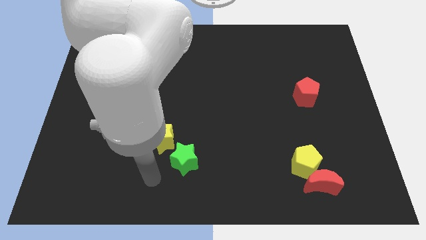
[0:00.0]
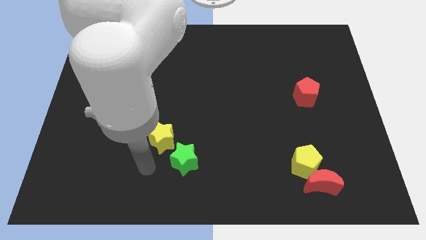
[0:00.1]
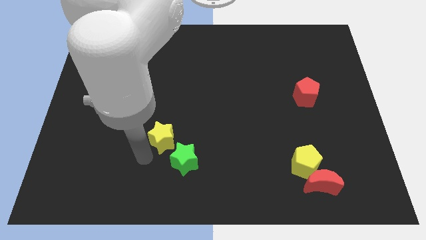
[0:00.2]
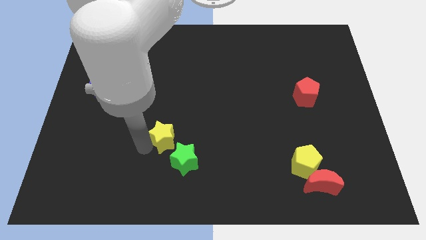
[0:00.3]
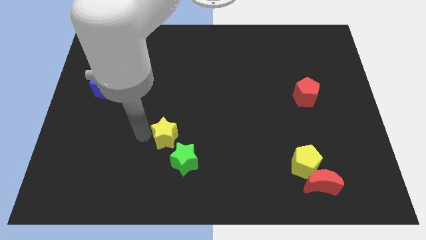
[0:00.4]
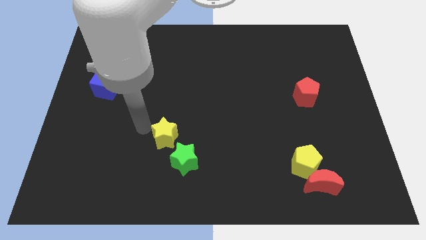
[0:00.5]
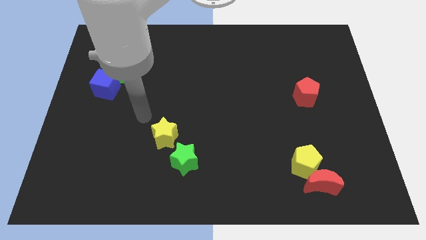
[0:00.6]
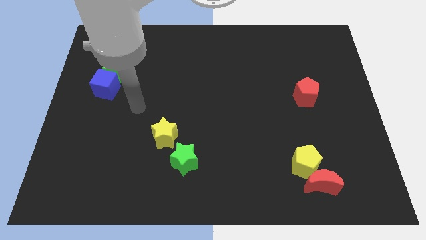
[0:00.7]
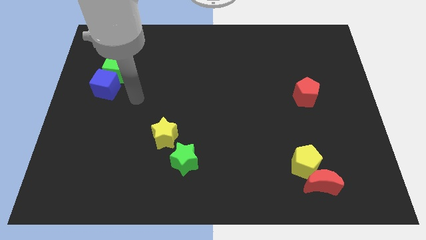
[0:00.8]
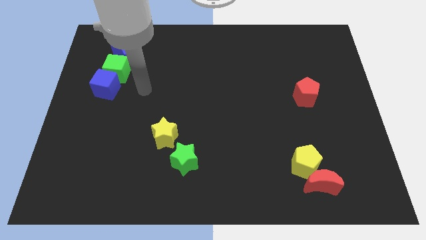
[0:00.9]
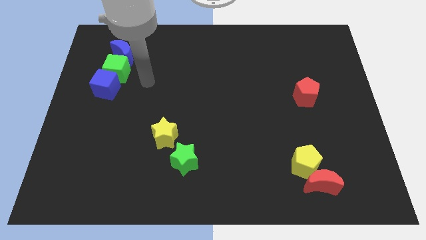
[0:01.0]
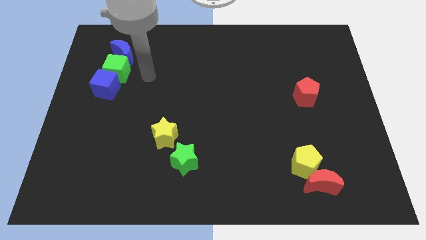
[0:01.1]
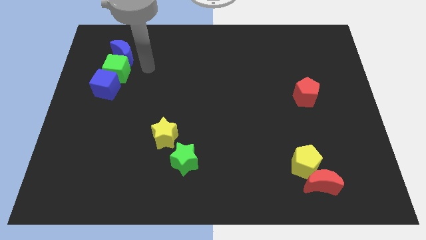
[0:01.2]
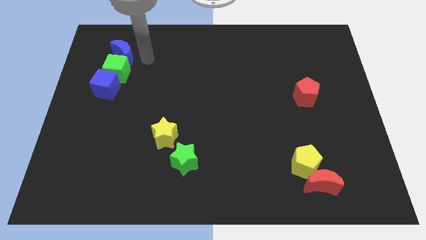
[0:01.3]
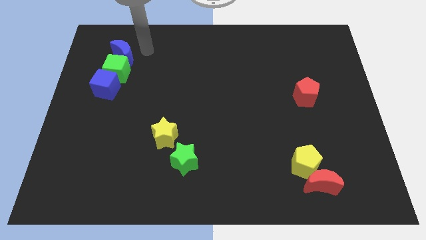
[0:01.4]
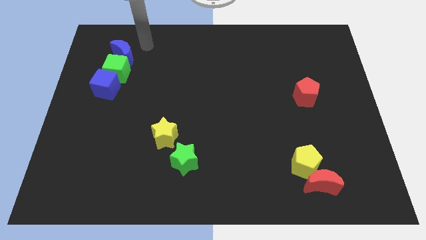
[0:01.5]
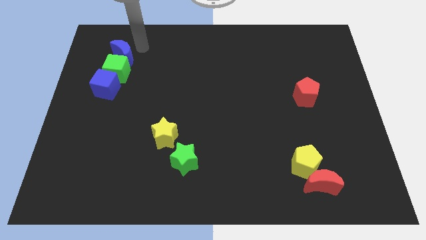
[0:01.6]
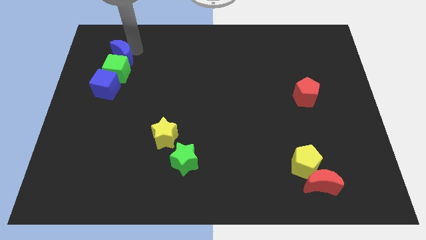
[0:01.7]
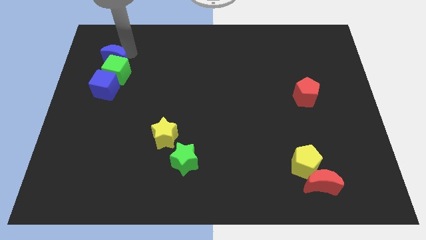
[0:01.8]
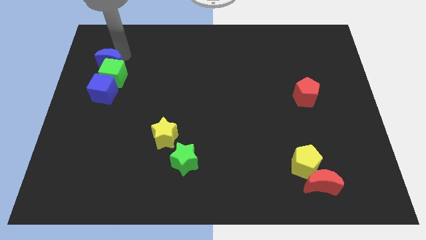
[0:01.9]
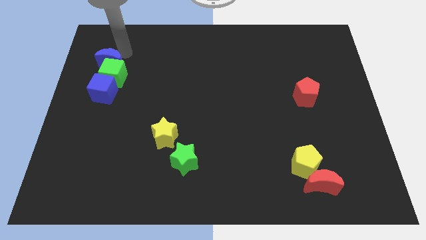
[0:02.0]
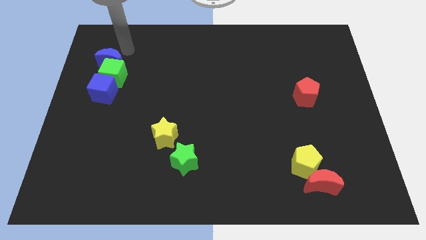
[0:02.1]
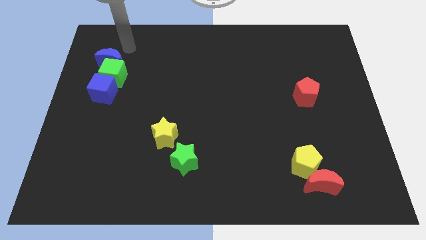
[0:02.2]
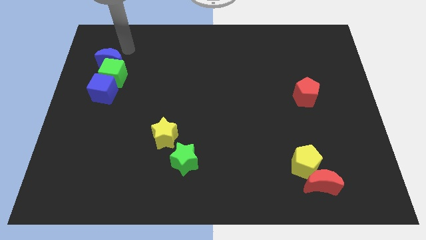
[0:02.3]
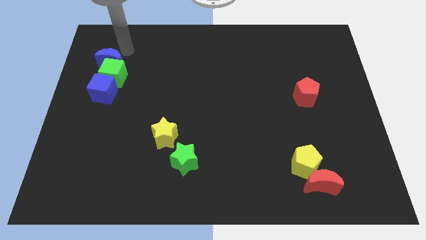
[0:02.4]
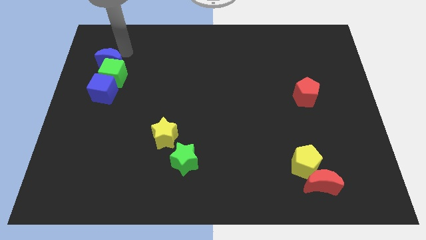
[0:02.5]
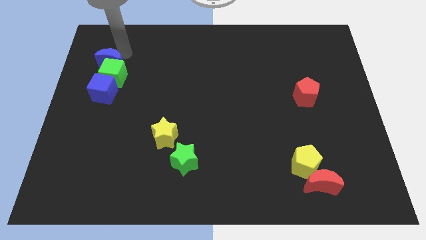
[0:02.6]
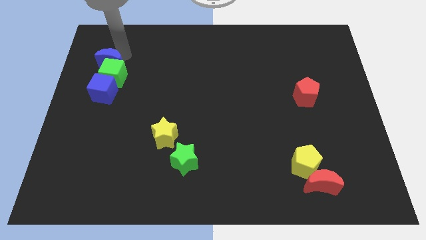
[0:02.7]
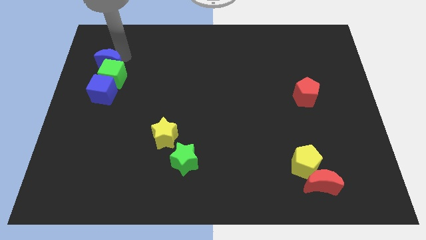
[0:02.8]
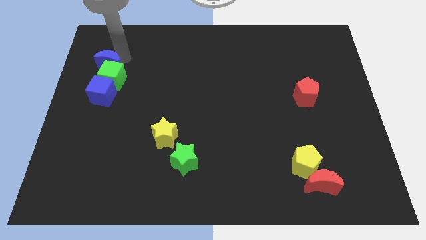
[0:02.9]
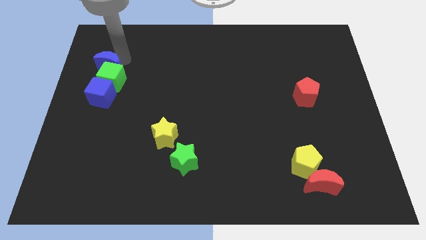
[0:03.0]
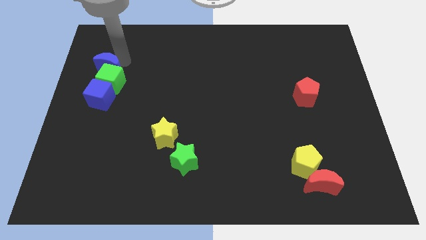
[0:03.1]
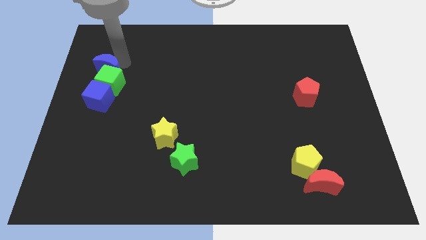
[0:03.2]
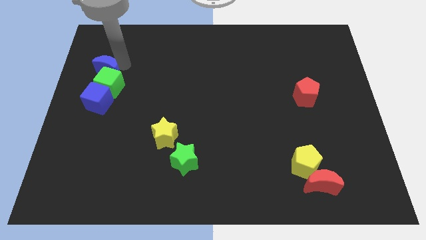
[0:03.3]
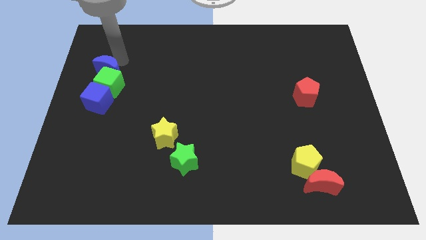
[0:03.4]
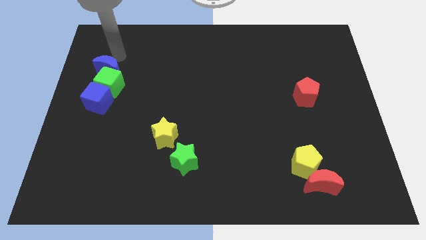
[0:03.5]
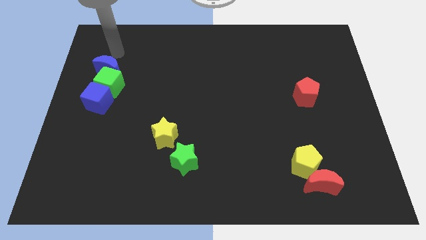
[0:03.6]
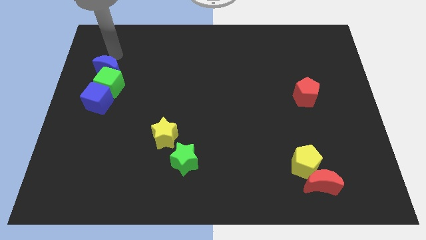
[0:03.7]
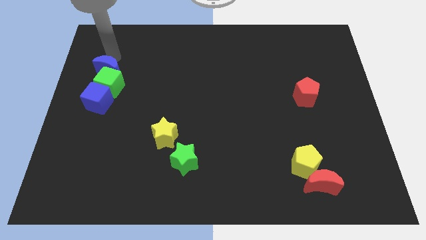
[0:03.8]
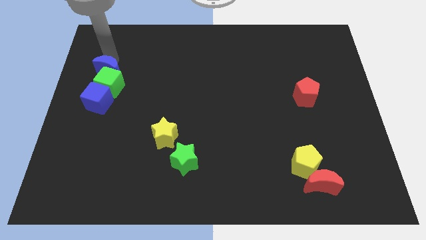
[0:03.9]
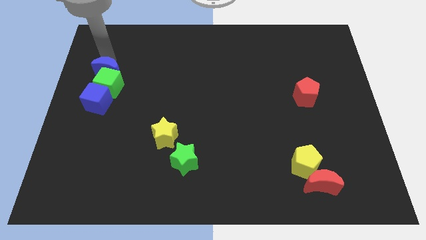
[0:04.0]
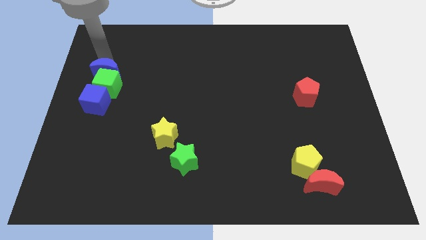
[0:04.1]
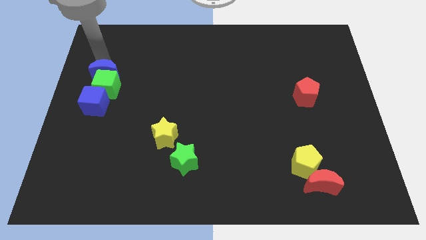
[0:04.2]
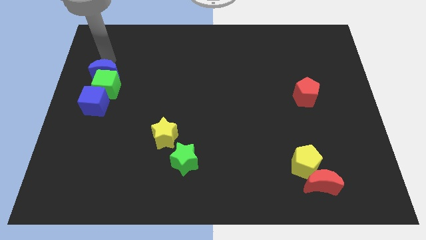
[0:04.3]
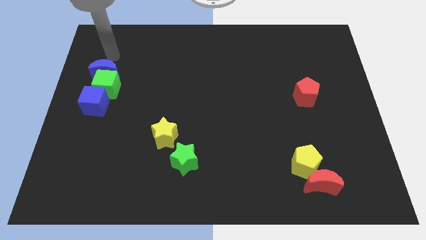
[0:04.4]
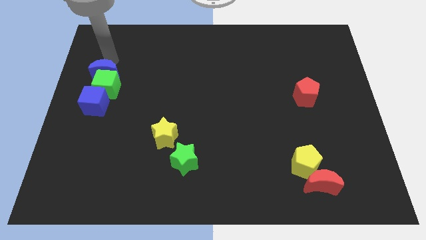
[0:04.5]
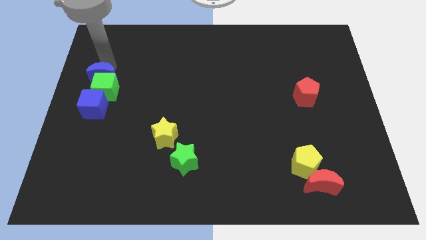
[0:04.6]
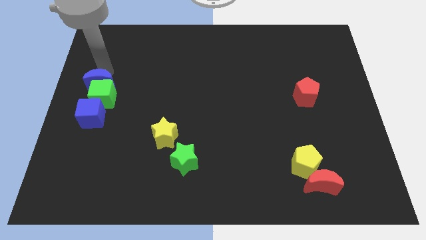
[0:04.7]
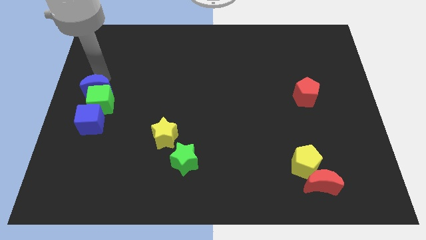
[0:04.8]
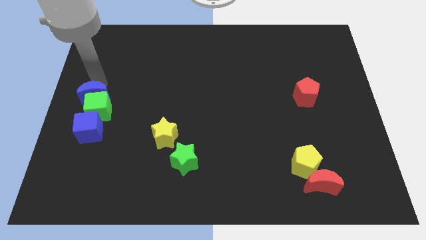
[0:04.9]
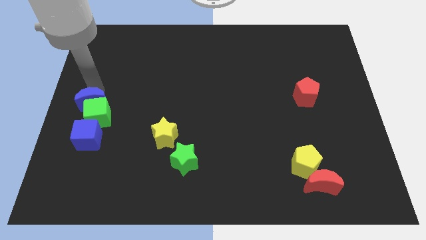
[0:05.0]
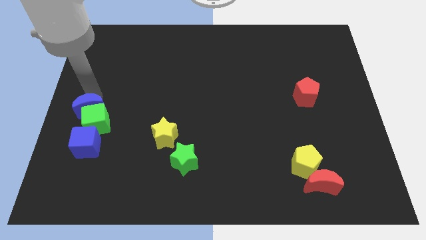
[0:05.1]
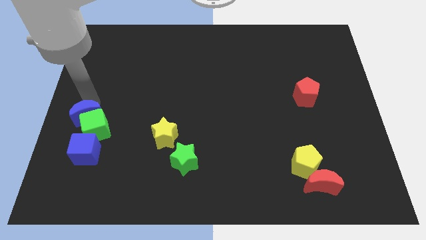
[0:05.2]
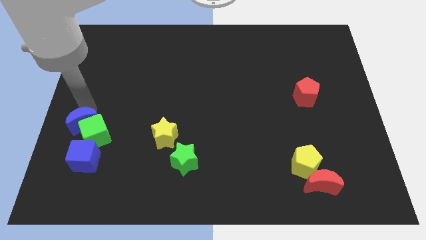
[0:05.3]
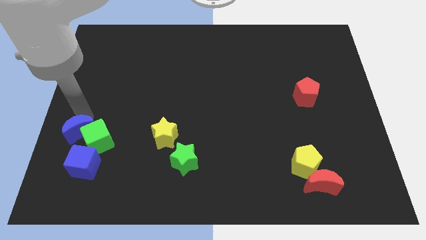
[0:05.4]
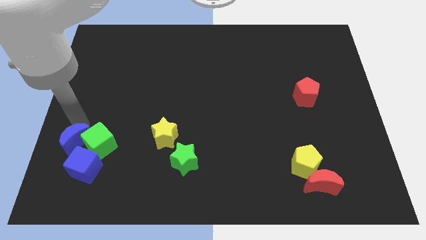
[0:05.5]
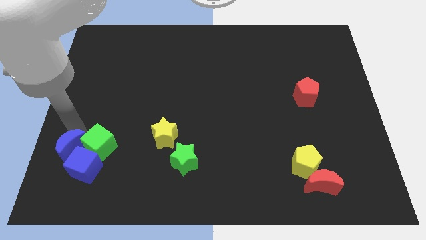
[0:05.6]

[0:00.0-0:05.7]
slide the blue moon close to the blue cube
